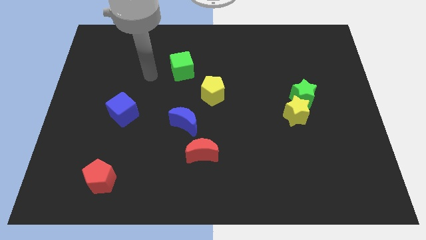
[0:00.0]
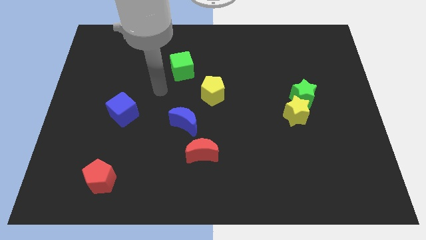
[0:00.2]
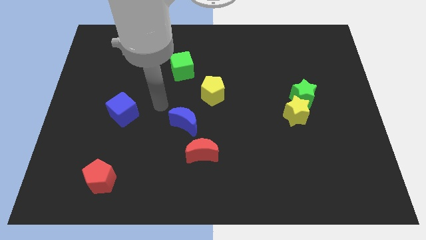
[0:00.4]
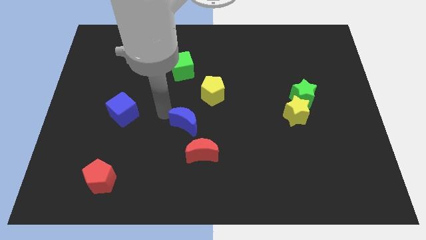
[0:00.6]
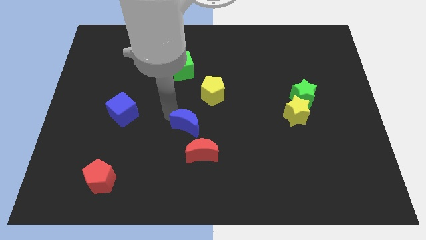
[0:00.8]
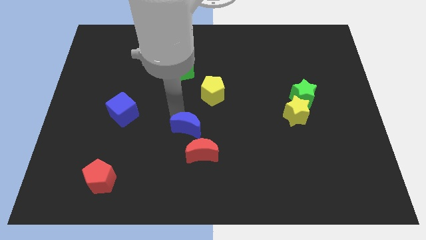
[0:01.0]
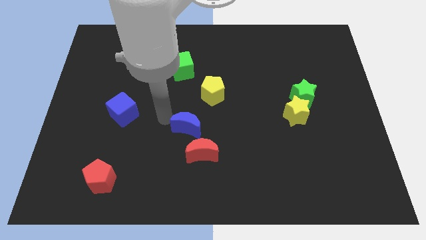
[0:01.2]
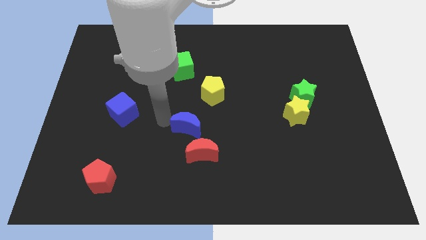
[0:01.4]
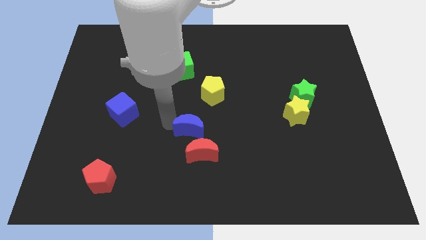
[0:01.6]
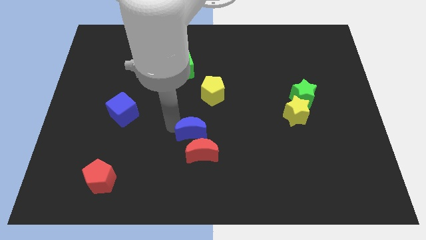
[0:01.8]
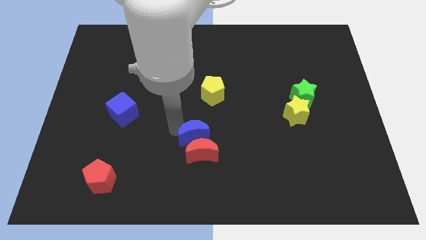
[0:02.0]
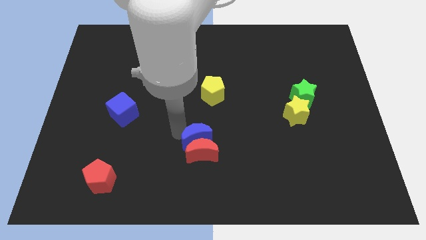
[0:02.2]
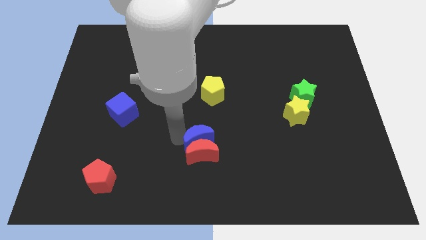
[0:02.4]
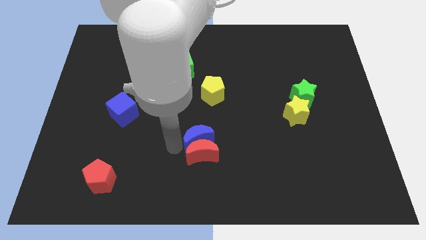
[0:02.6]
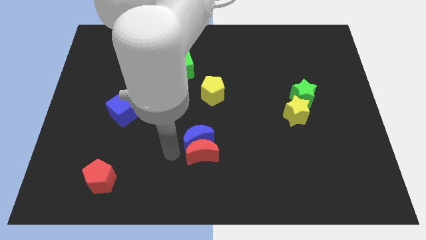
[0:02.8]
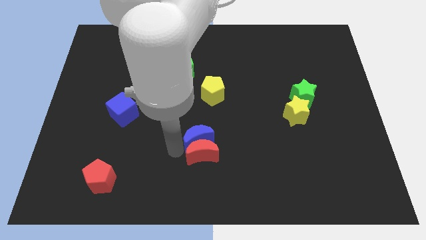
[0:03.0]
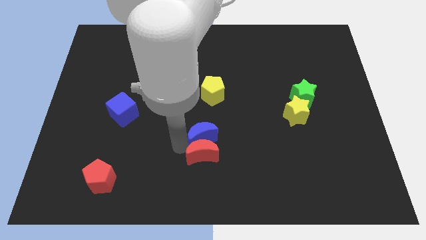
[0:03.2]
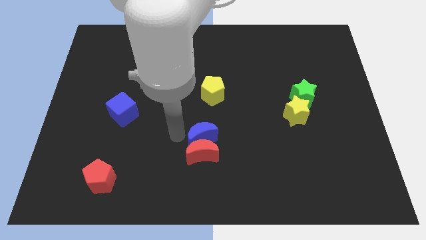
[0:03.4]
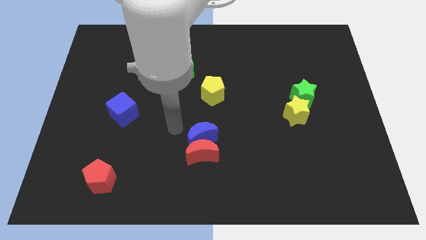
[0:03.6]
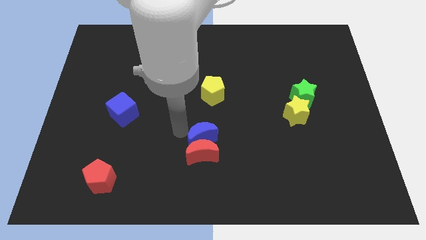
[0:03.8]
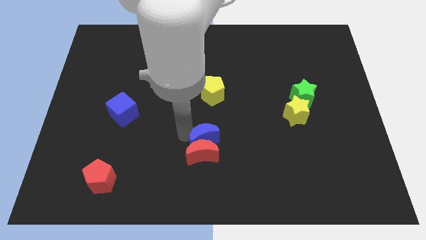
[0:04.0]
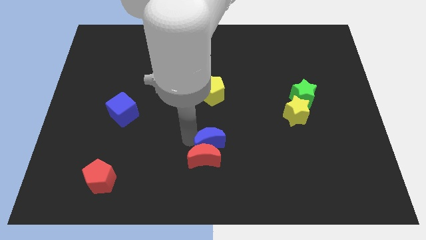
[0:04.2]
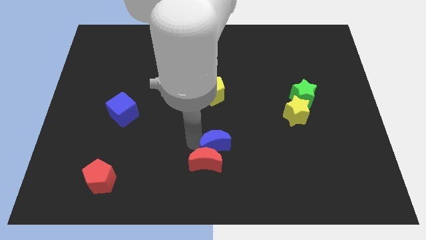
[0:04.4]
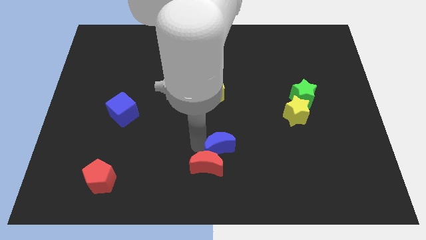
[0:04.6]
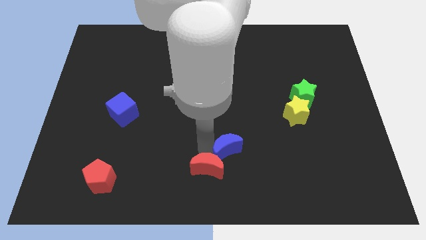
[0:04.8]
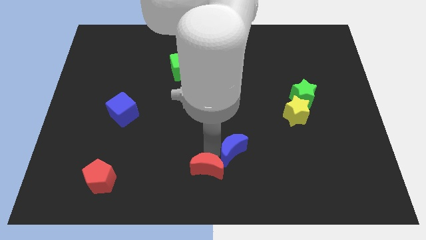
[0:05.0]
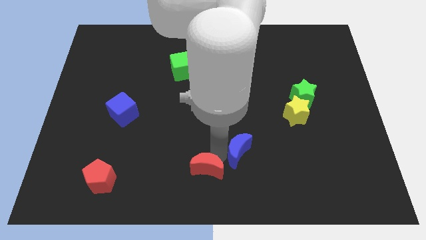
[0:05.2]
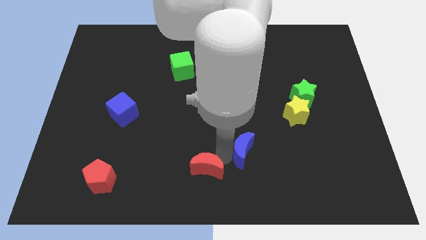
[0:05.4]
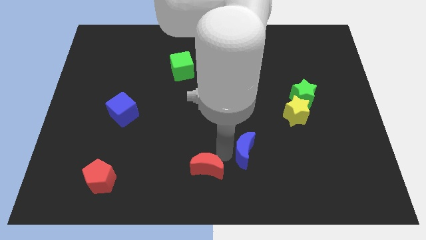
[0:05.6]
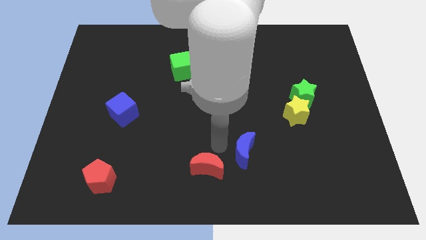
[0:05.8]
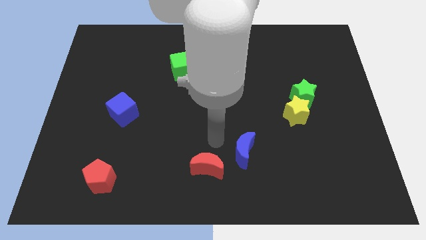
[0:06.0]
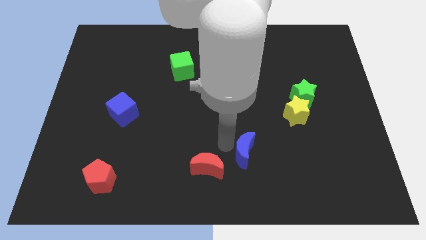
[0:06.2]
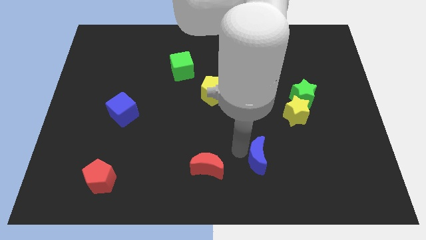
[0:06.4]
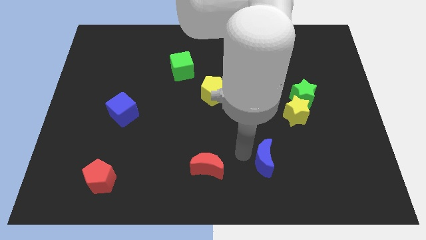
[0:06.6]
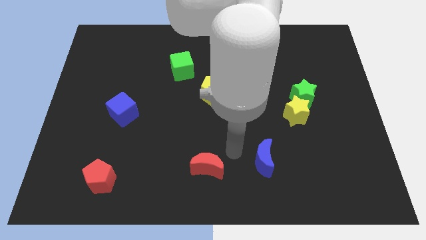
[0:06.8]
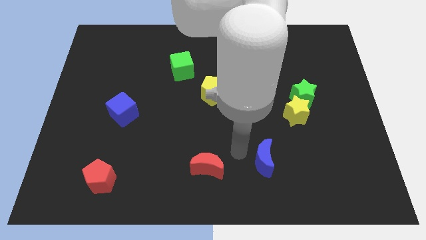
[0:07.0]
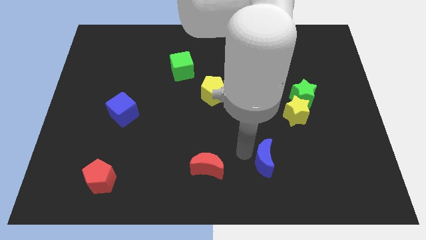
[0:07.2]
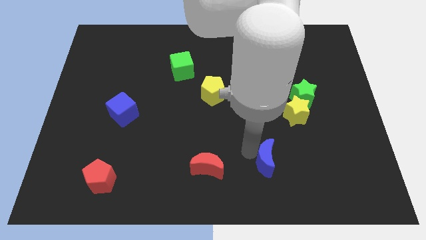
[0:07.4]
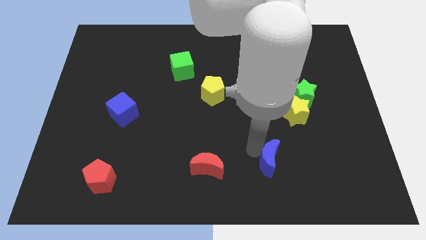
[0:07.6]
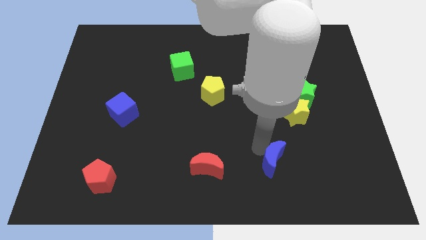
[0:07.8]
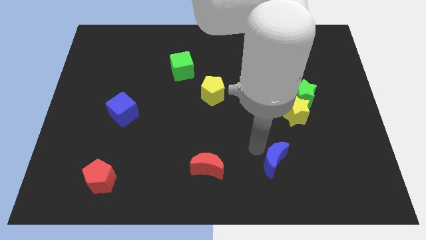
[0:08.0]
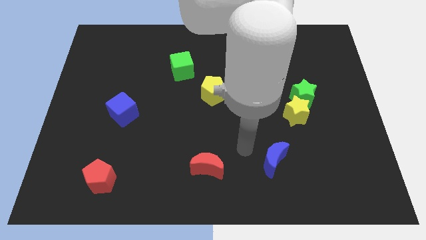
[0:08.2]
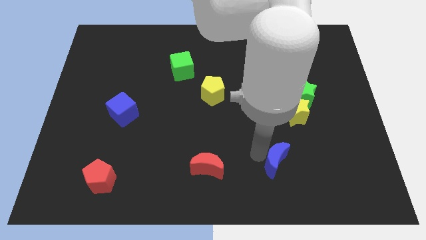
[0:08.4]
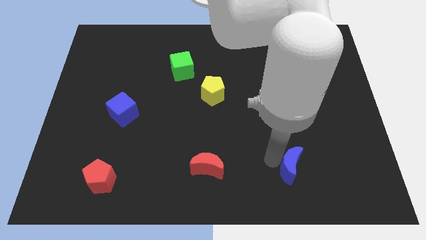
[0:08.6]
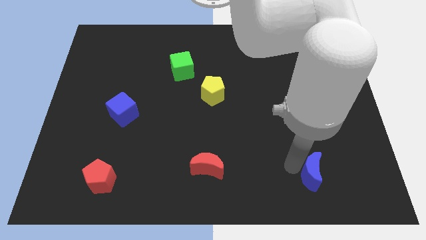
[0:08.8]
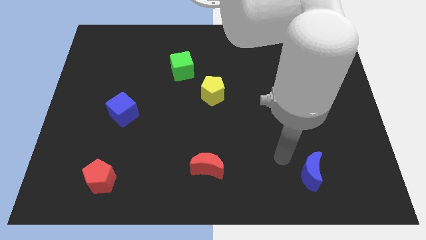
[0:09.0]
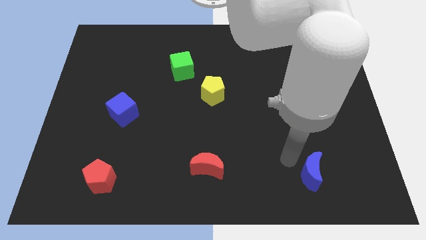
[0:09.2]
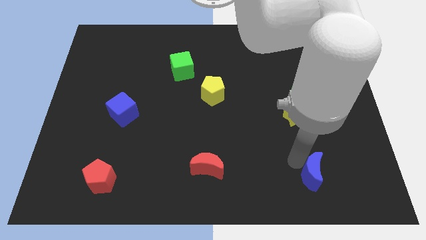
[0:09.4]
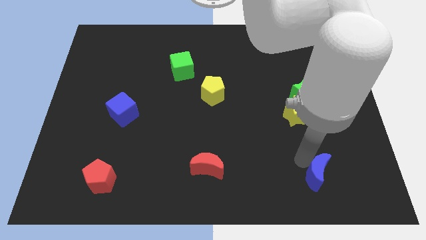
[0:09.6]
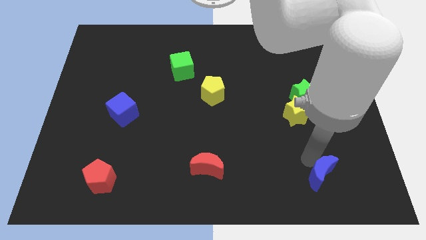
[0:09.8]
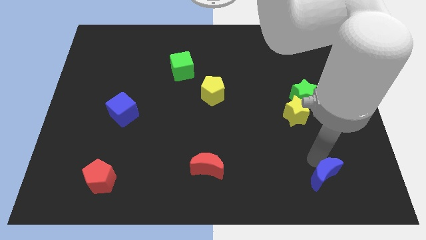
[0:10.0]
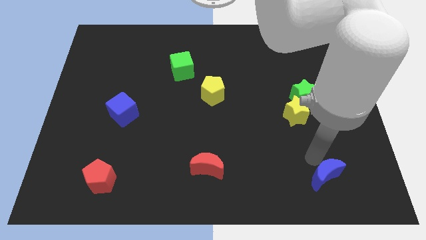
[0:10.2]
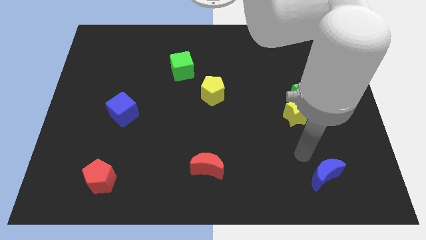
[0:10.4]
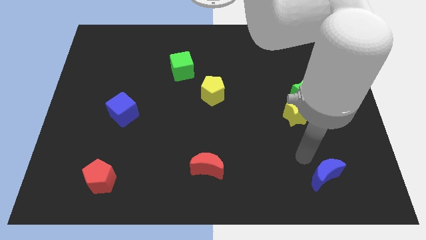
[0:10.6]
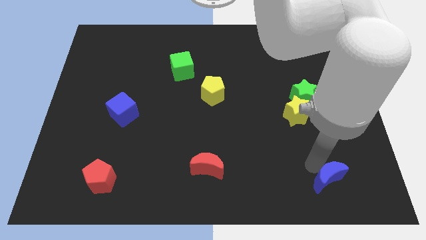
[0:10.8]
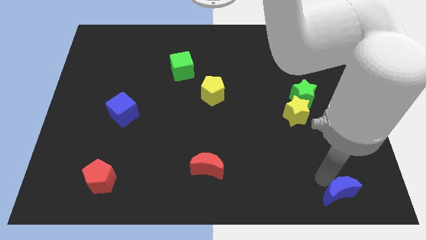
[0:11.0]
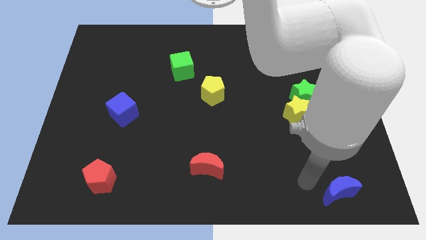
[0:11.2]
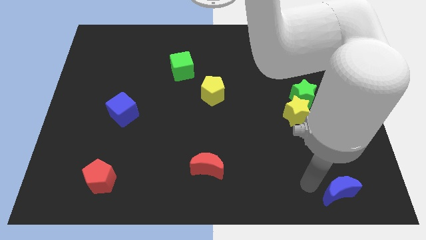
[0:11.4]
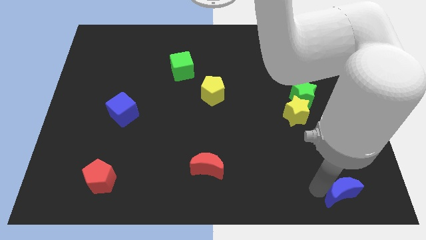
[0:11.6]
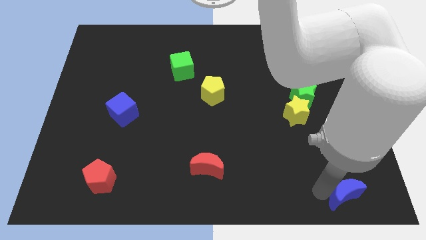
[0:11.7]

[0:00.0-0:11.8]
put the blue moon to the bottom right

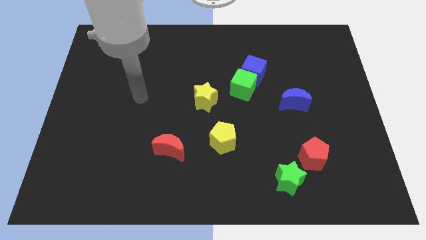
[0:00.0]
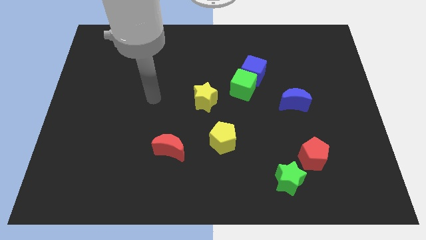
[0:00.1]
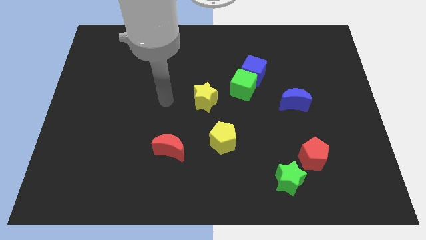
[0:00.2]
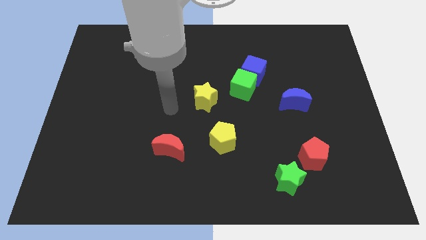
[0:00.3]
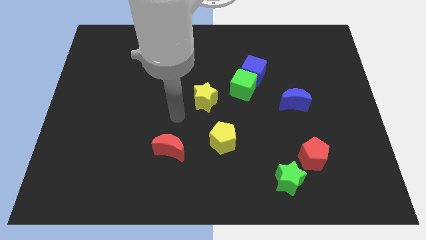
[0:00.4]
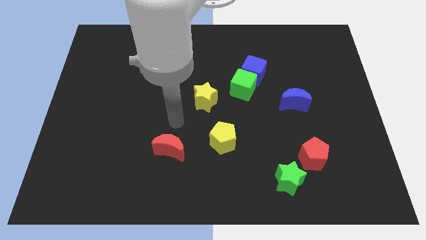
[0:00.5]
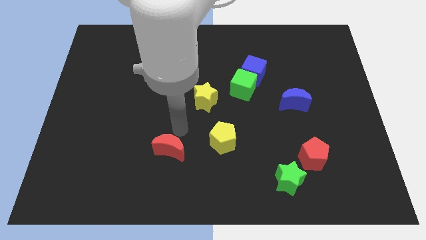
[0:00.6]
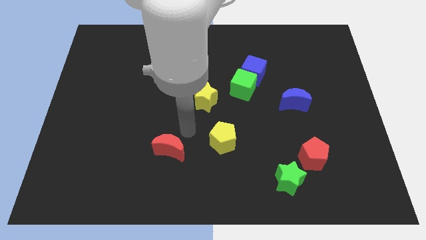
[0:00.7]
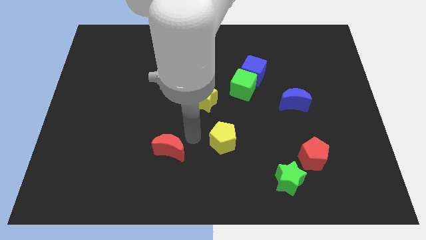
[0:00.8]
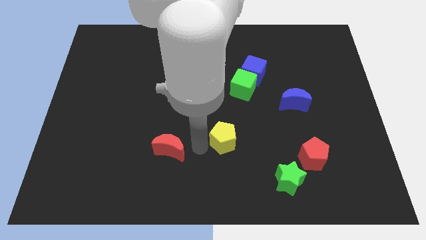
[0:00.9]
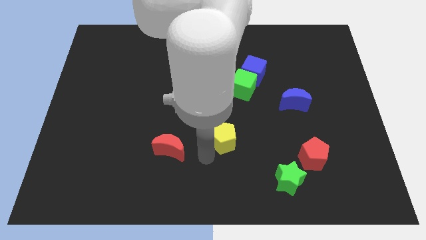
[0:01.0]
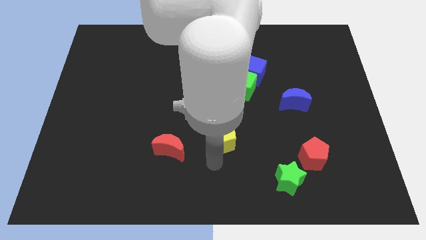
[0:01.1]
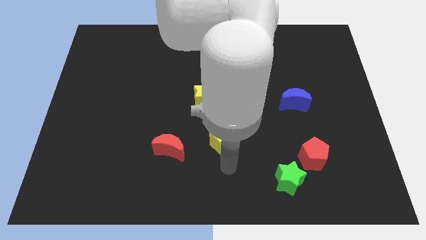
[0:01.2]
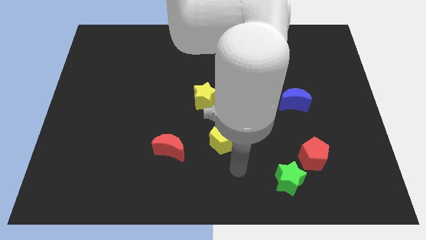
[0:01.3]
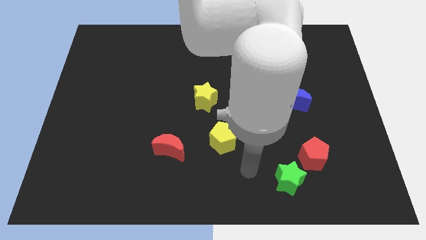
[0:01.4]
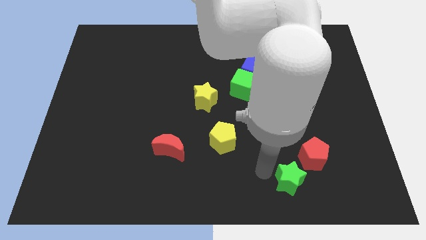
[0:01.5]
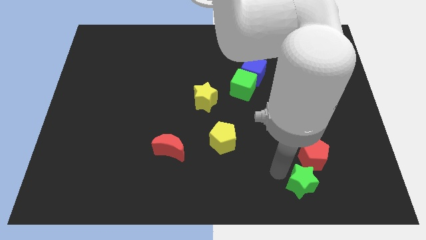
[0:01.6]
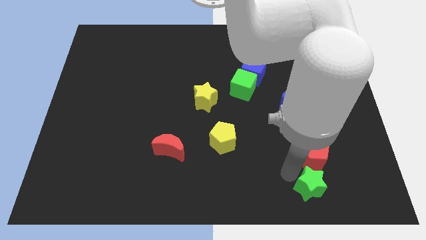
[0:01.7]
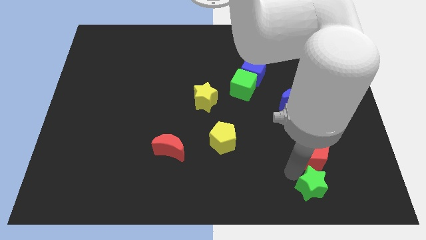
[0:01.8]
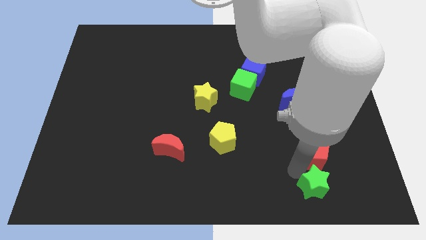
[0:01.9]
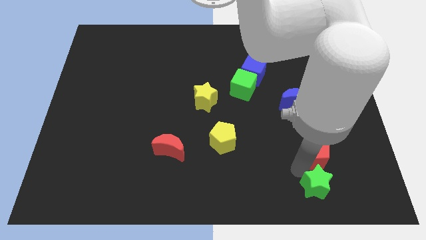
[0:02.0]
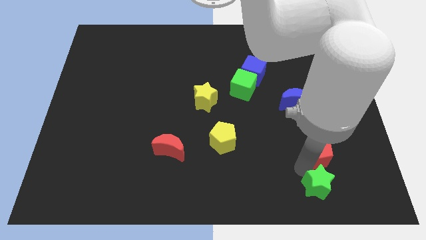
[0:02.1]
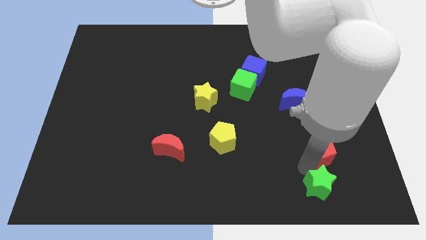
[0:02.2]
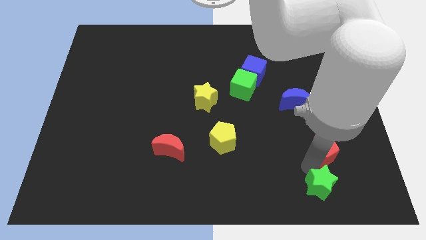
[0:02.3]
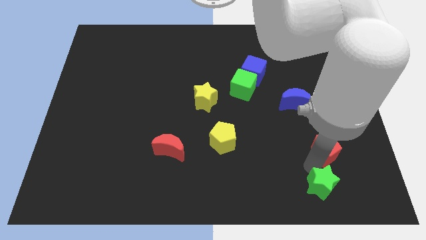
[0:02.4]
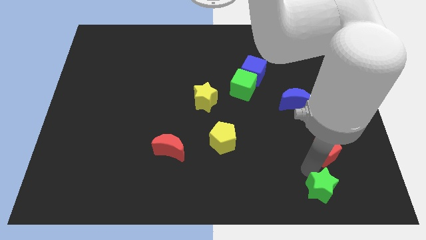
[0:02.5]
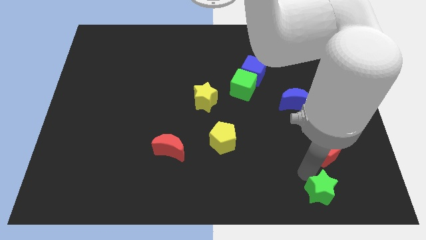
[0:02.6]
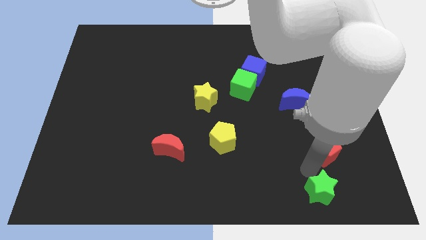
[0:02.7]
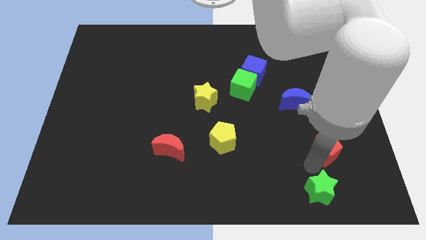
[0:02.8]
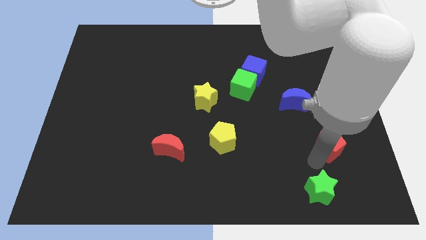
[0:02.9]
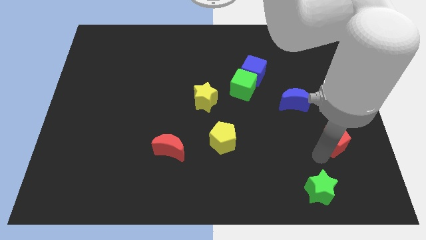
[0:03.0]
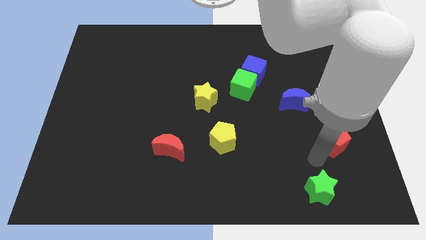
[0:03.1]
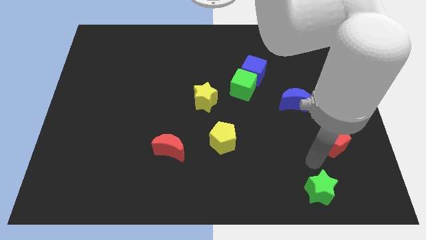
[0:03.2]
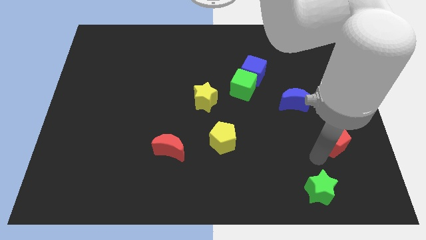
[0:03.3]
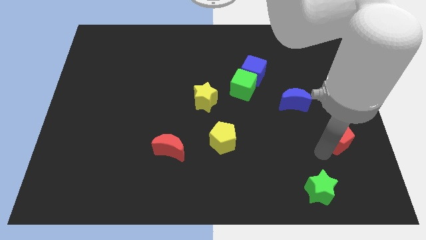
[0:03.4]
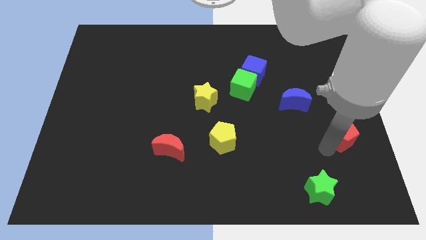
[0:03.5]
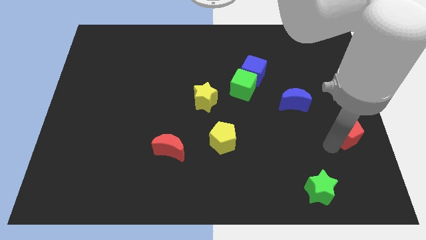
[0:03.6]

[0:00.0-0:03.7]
move the red pentagon to the center right
